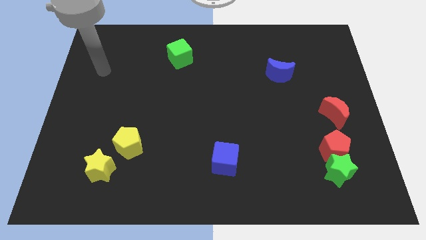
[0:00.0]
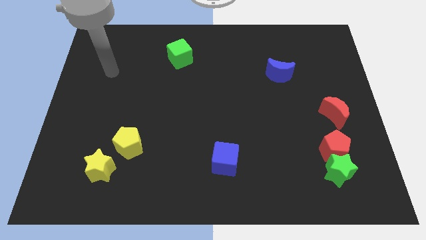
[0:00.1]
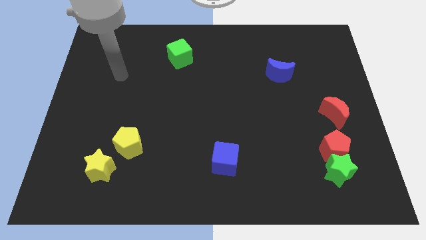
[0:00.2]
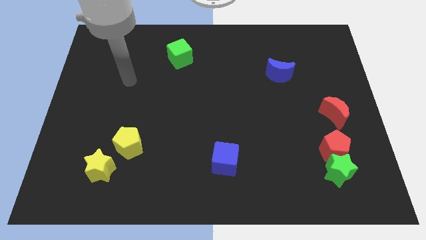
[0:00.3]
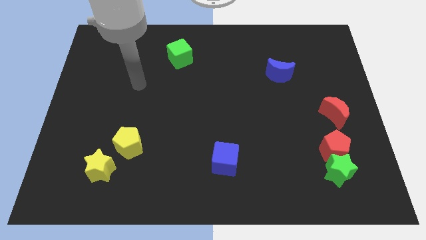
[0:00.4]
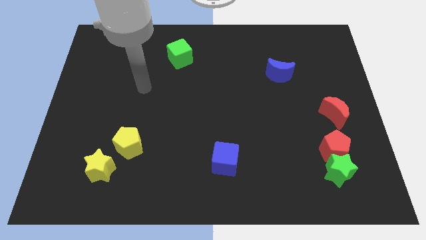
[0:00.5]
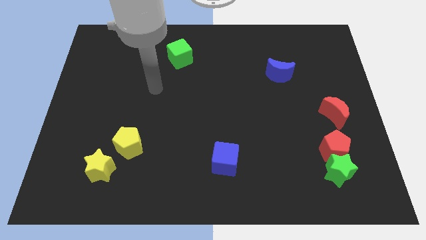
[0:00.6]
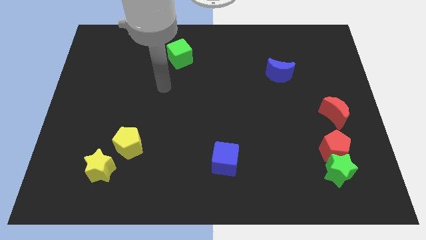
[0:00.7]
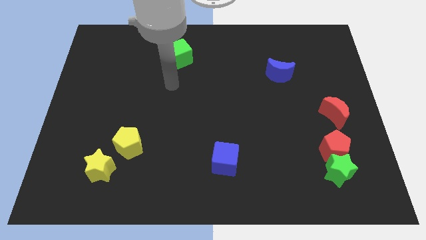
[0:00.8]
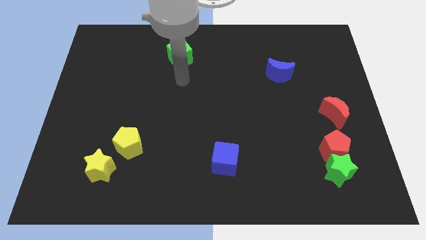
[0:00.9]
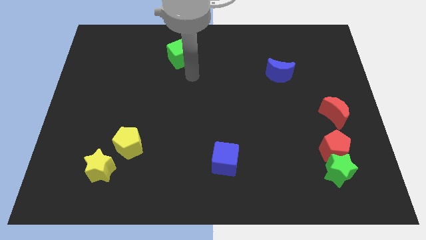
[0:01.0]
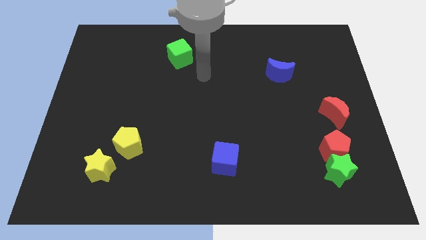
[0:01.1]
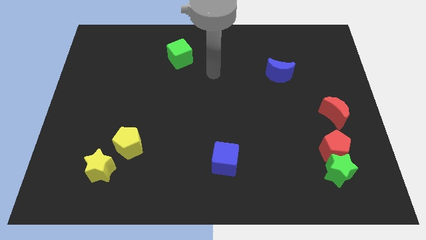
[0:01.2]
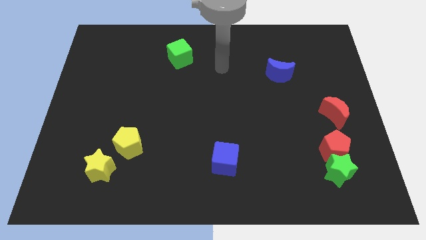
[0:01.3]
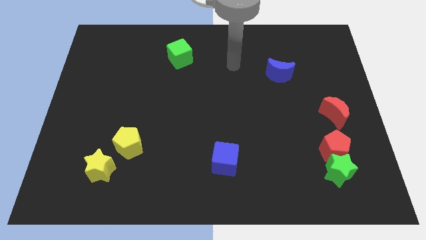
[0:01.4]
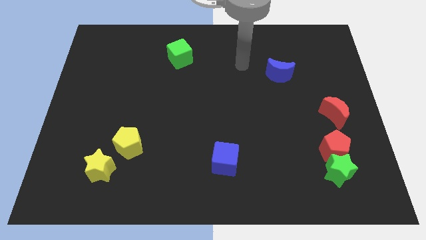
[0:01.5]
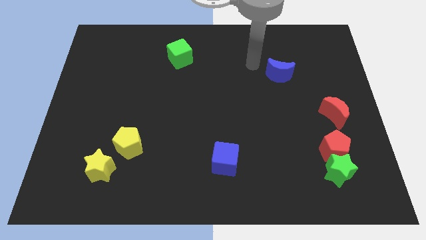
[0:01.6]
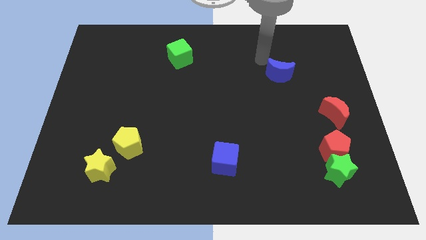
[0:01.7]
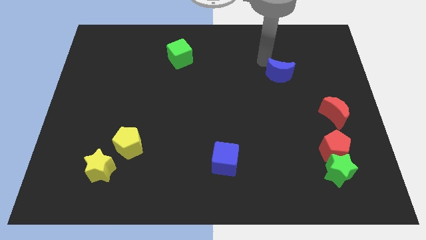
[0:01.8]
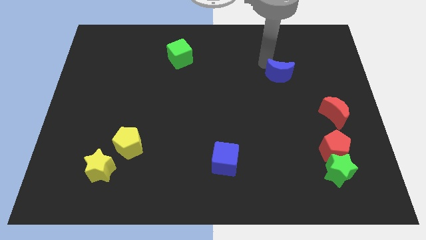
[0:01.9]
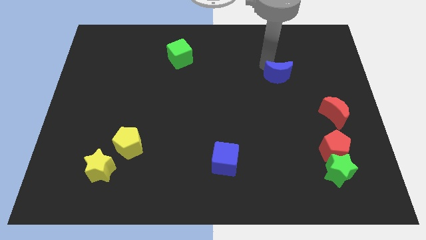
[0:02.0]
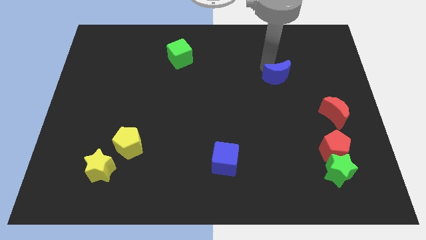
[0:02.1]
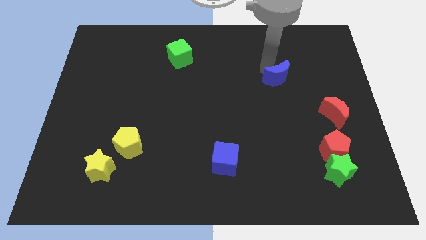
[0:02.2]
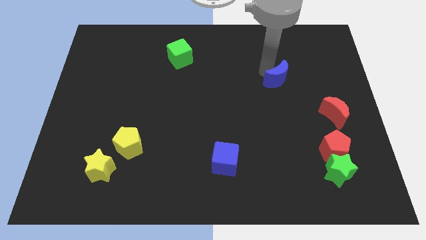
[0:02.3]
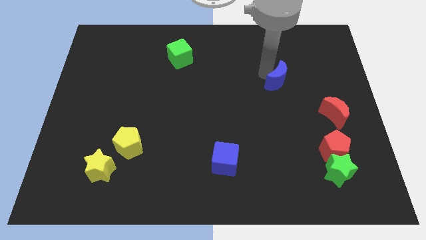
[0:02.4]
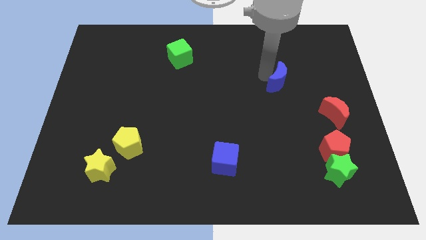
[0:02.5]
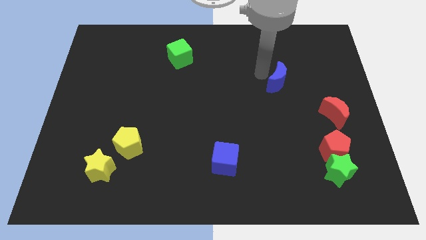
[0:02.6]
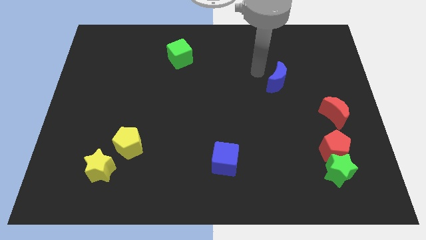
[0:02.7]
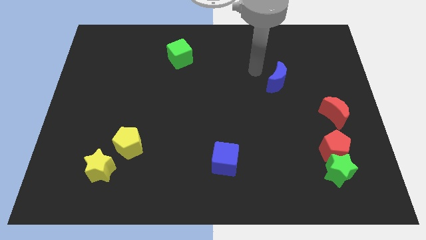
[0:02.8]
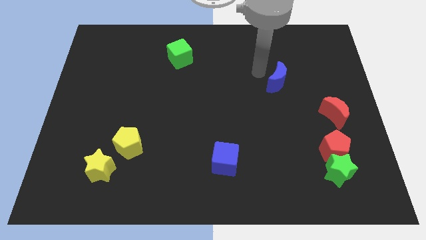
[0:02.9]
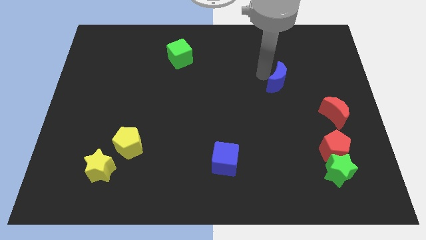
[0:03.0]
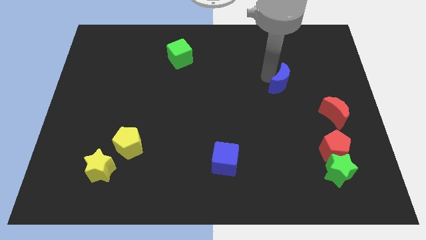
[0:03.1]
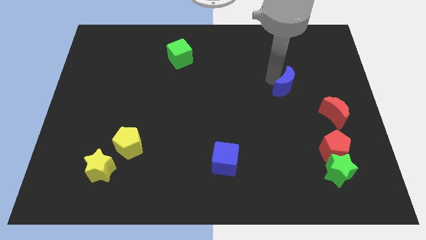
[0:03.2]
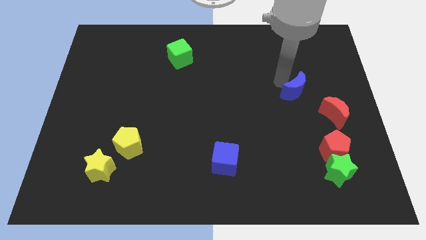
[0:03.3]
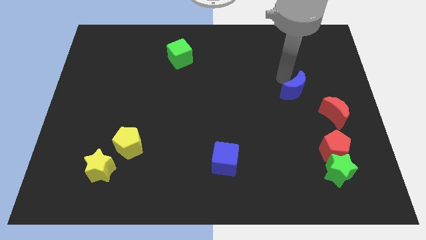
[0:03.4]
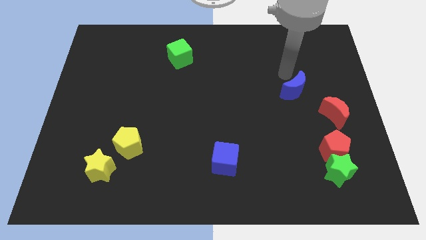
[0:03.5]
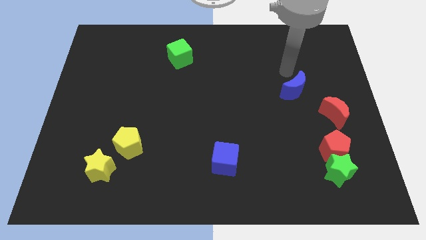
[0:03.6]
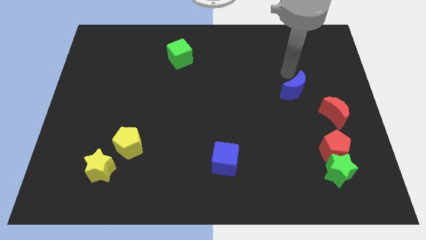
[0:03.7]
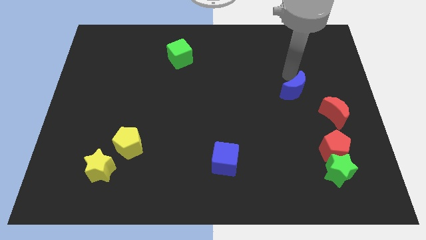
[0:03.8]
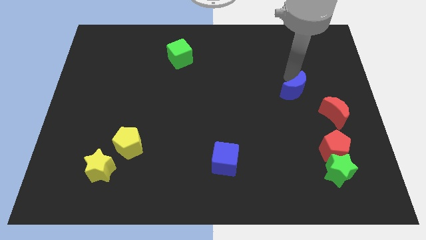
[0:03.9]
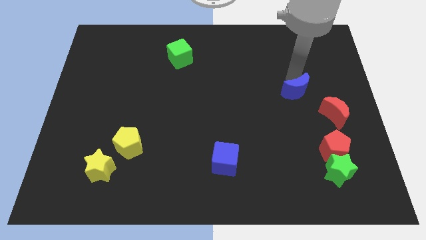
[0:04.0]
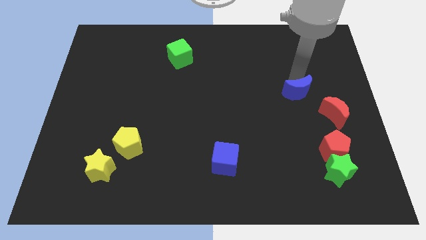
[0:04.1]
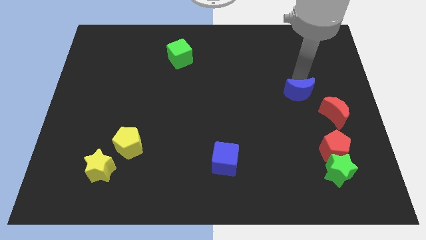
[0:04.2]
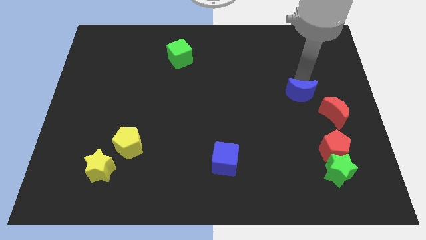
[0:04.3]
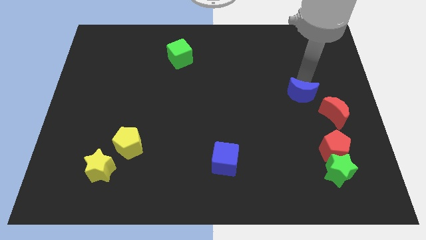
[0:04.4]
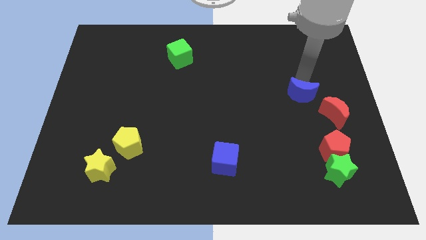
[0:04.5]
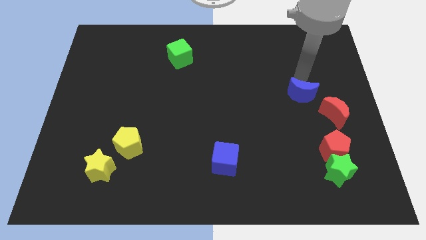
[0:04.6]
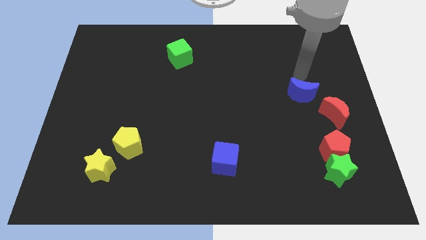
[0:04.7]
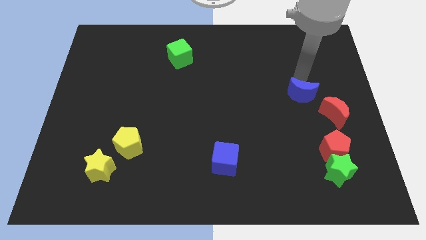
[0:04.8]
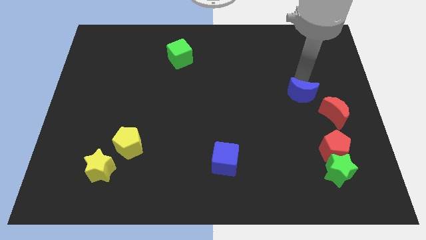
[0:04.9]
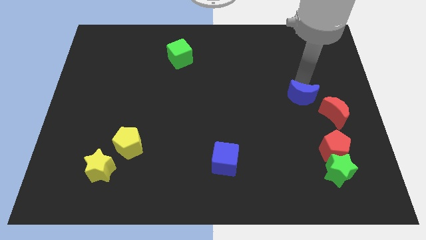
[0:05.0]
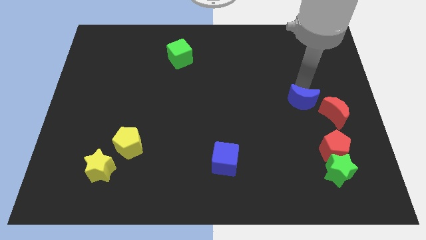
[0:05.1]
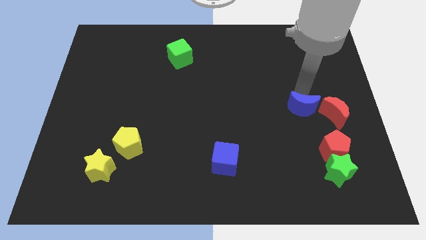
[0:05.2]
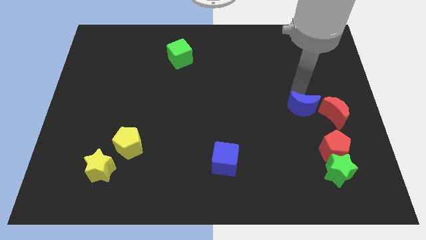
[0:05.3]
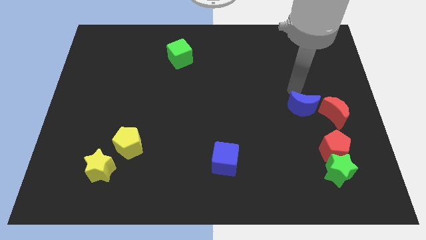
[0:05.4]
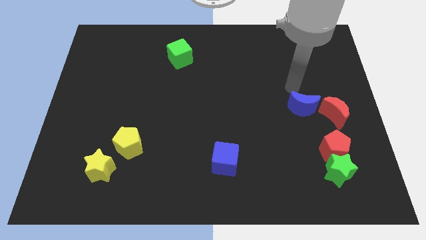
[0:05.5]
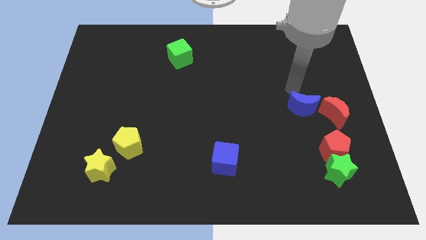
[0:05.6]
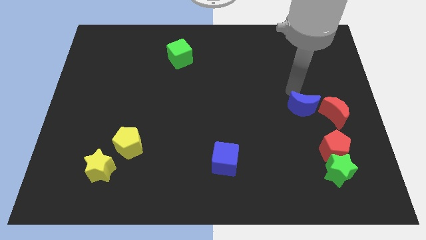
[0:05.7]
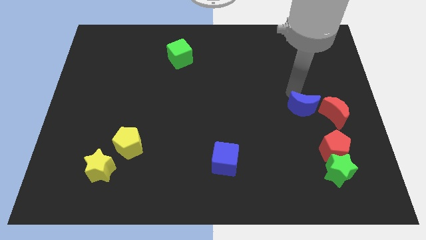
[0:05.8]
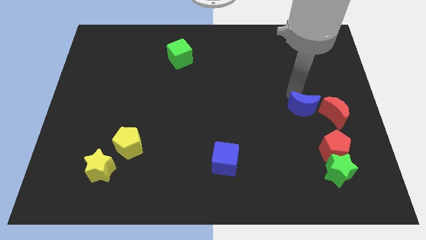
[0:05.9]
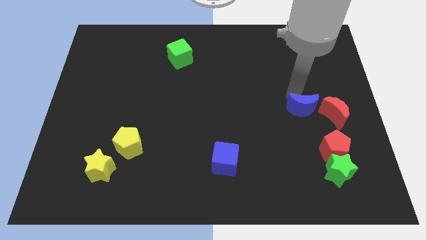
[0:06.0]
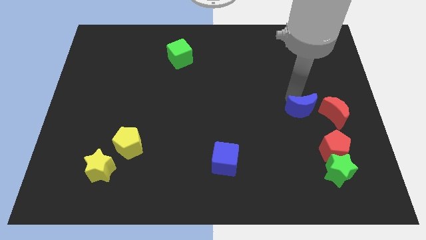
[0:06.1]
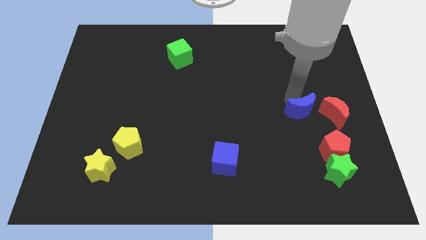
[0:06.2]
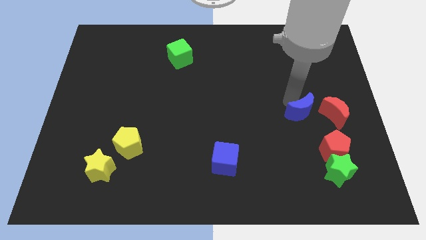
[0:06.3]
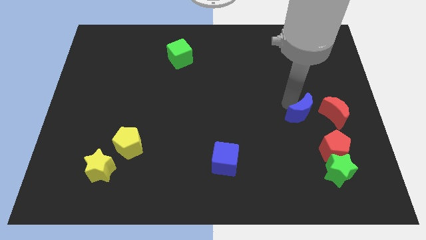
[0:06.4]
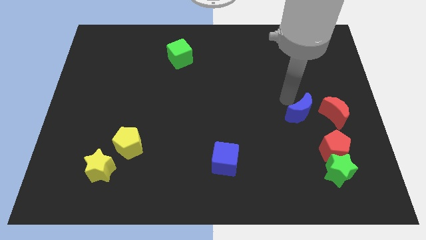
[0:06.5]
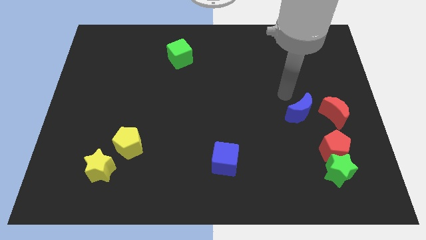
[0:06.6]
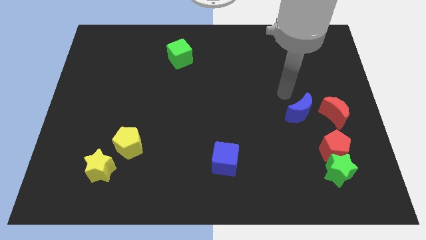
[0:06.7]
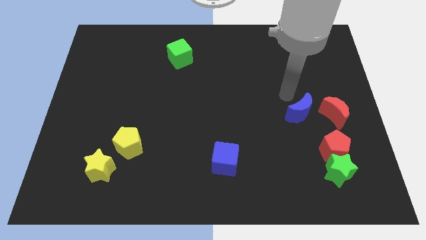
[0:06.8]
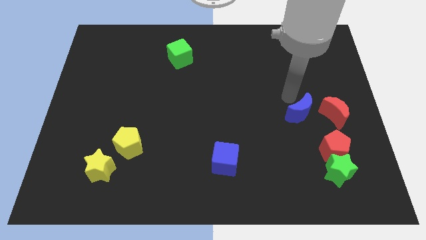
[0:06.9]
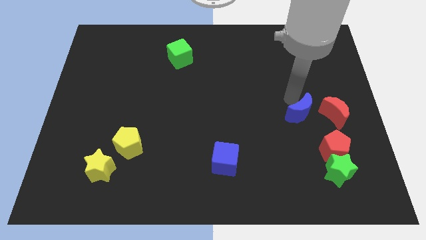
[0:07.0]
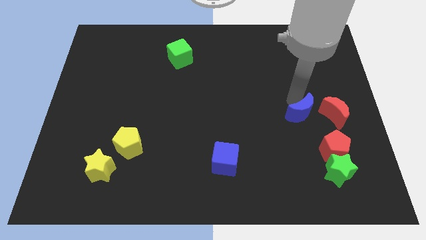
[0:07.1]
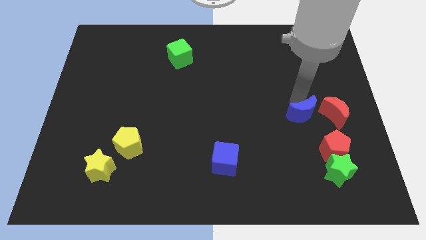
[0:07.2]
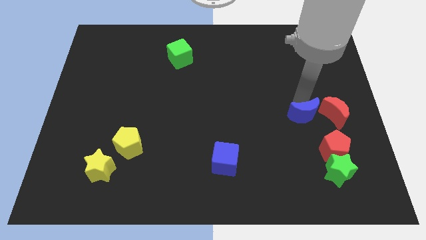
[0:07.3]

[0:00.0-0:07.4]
push the blue moon to the bottom left of the red moon

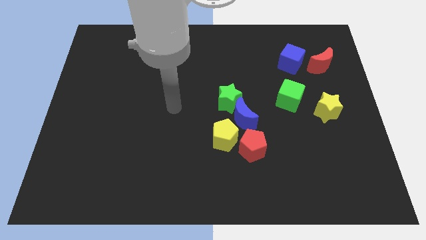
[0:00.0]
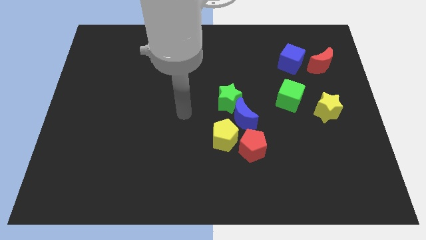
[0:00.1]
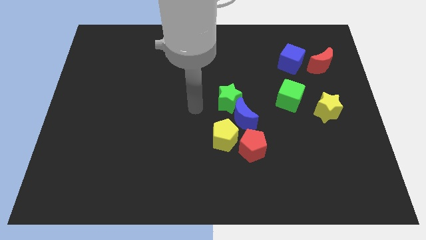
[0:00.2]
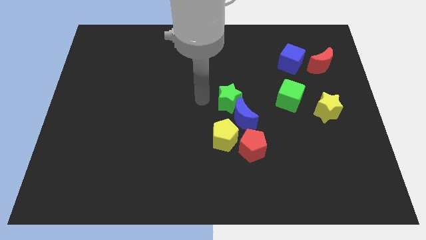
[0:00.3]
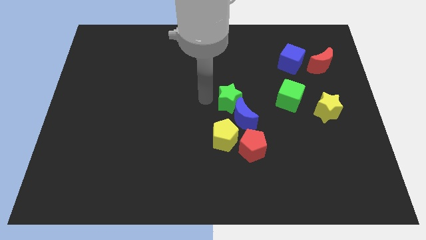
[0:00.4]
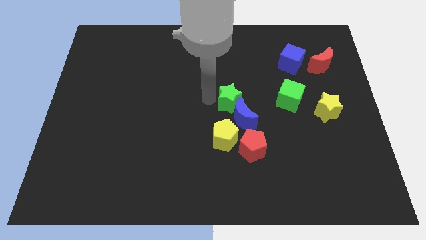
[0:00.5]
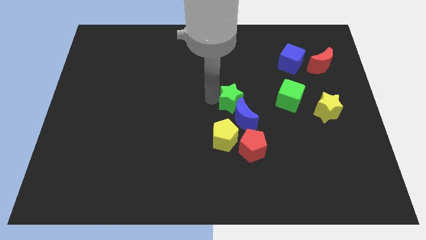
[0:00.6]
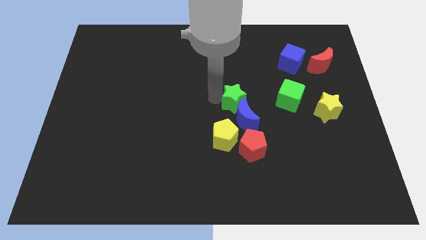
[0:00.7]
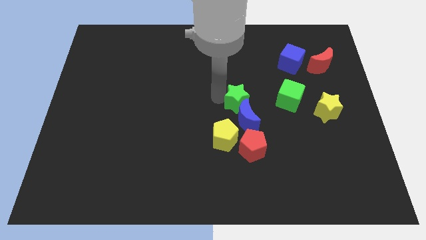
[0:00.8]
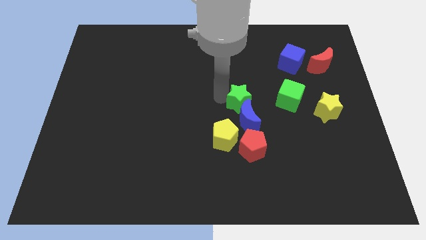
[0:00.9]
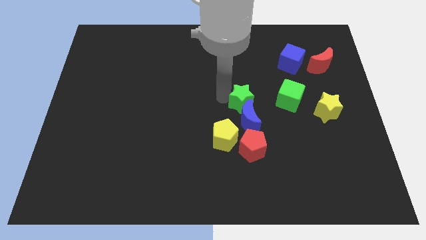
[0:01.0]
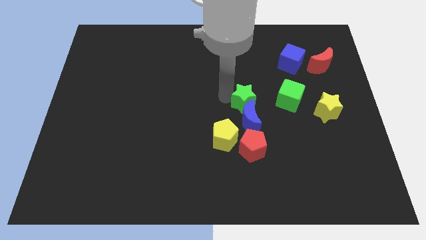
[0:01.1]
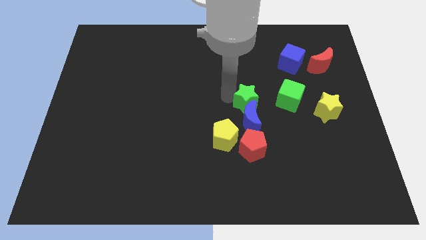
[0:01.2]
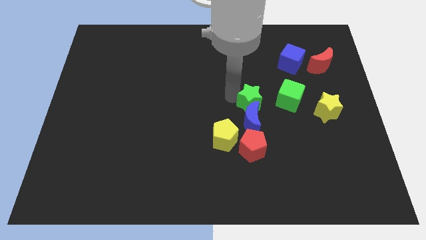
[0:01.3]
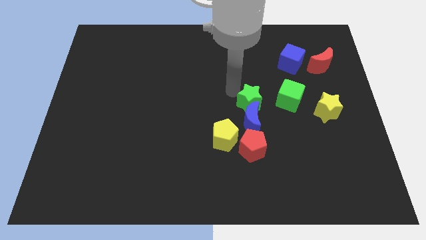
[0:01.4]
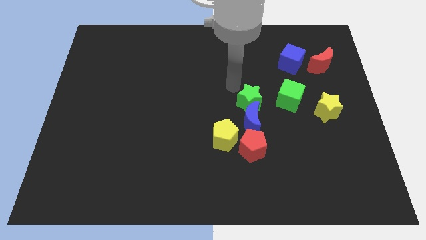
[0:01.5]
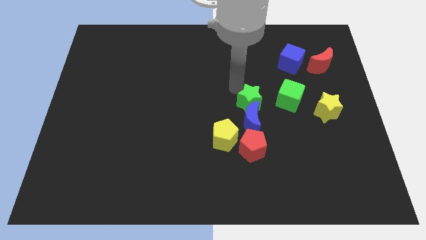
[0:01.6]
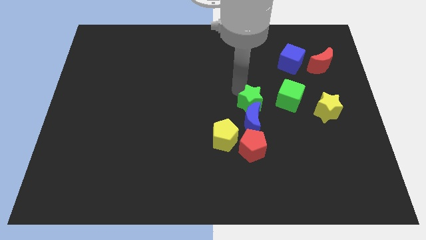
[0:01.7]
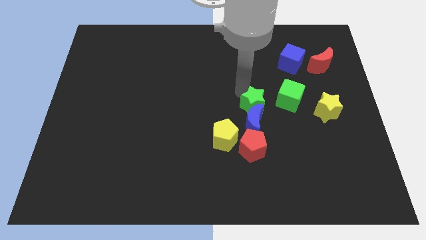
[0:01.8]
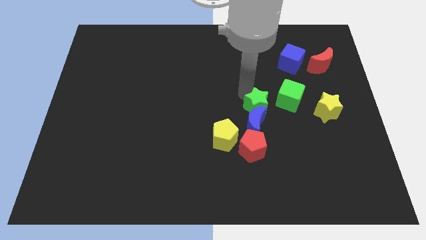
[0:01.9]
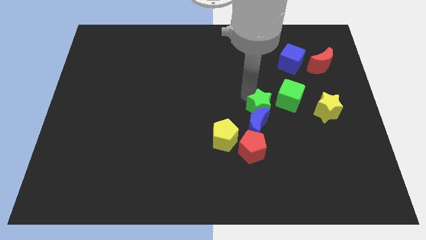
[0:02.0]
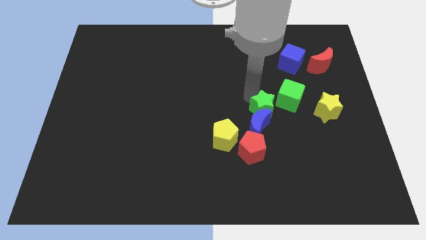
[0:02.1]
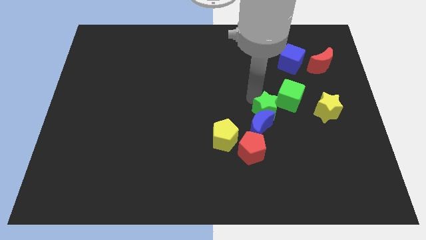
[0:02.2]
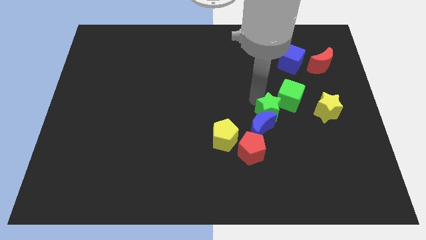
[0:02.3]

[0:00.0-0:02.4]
slide the green star to the top right side of the red pentagon
